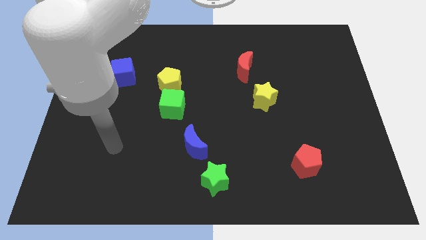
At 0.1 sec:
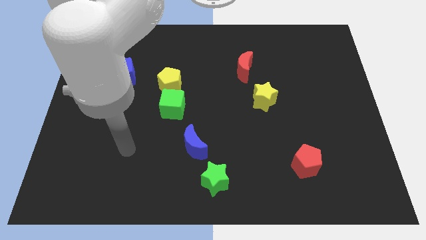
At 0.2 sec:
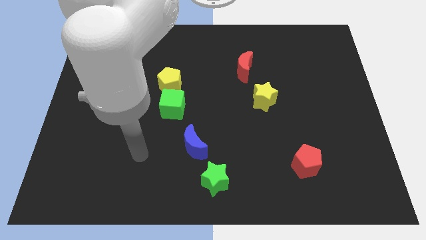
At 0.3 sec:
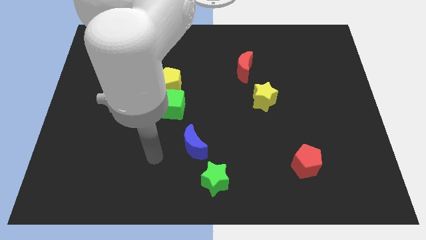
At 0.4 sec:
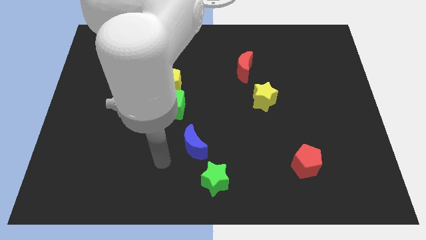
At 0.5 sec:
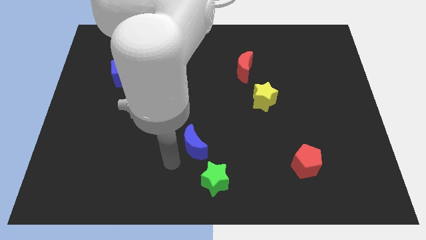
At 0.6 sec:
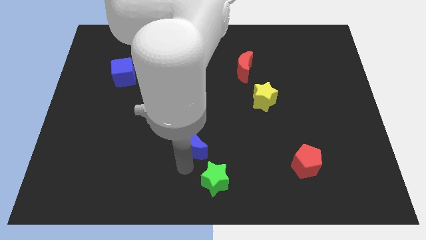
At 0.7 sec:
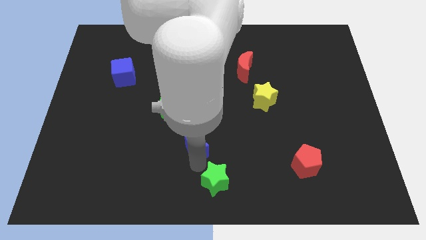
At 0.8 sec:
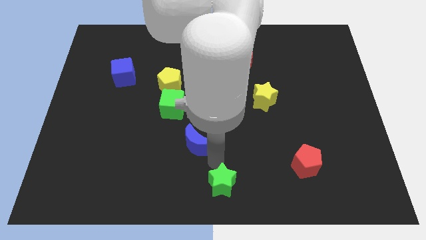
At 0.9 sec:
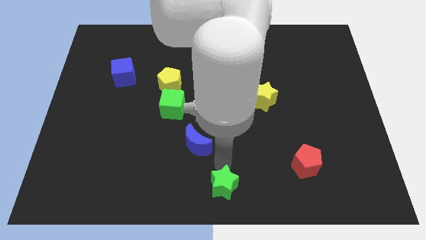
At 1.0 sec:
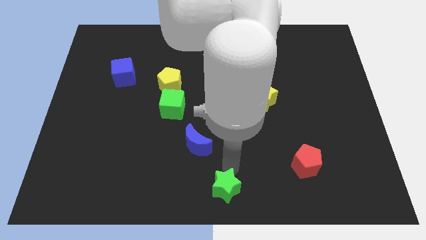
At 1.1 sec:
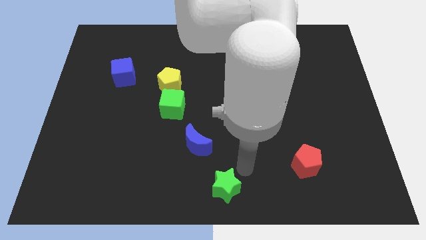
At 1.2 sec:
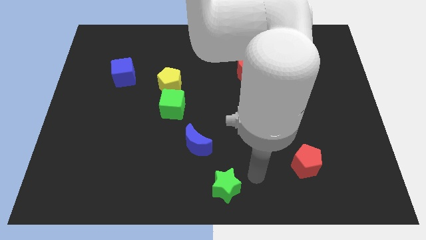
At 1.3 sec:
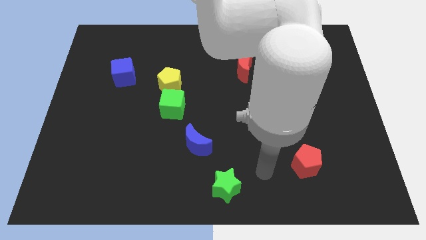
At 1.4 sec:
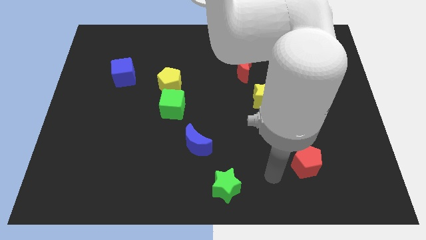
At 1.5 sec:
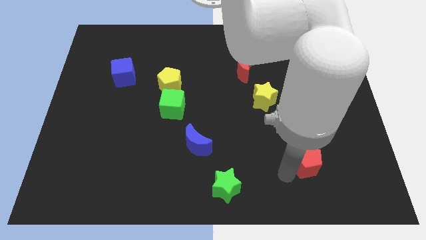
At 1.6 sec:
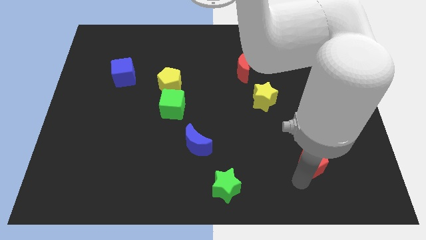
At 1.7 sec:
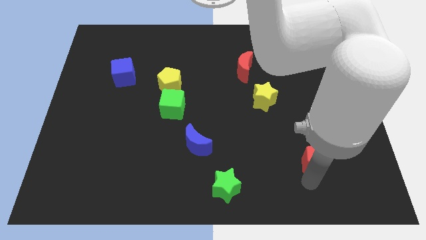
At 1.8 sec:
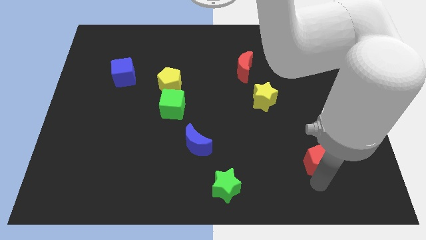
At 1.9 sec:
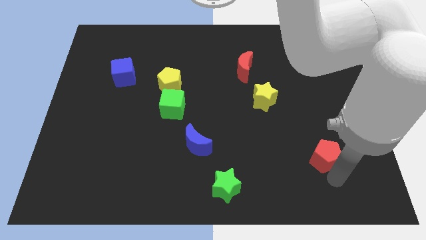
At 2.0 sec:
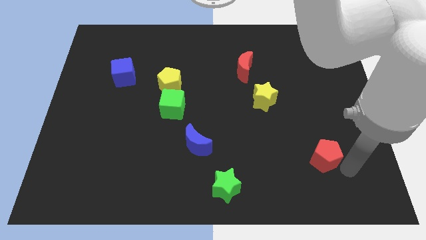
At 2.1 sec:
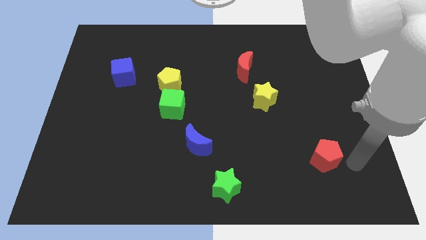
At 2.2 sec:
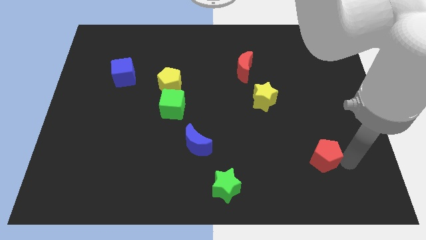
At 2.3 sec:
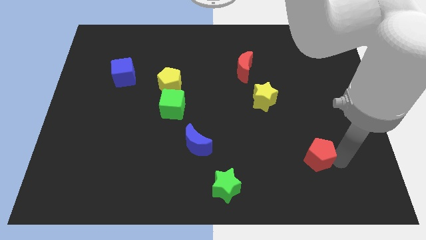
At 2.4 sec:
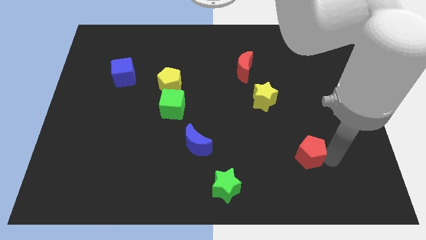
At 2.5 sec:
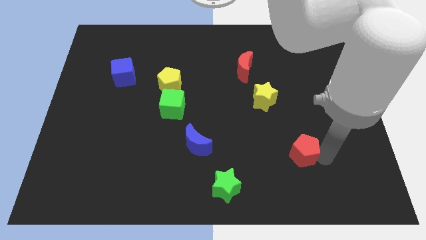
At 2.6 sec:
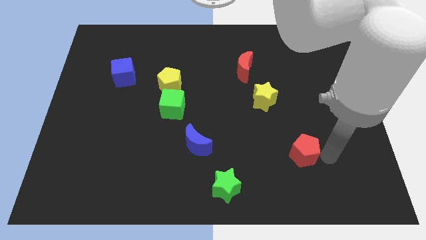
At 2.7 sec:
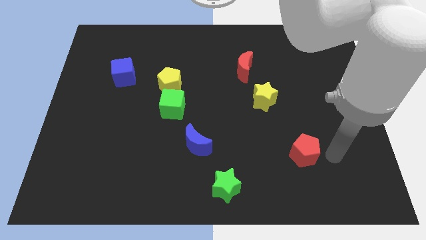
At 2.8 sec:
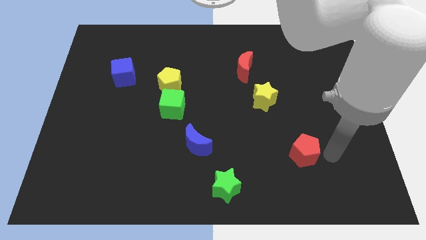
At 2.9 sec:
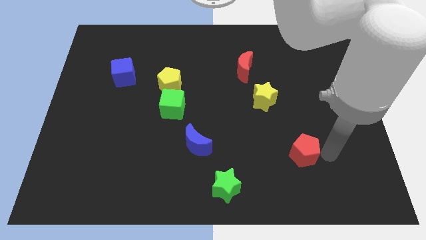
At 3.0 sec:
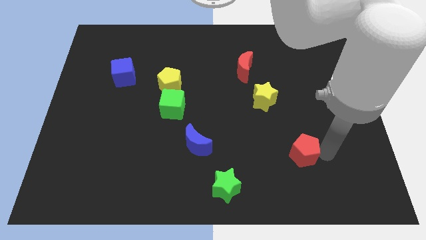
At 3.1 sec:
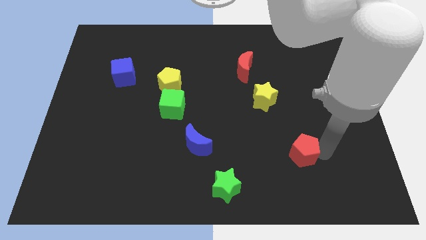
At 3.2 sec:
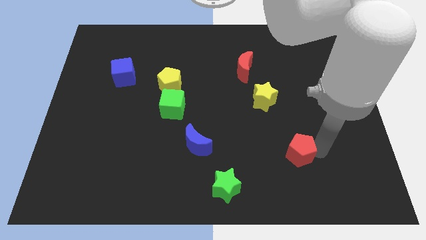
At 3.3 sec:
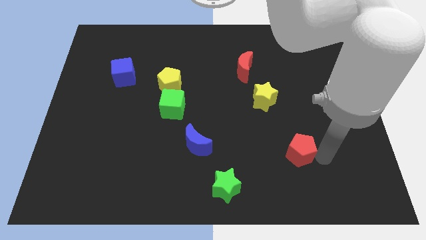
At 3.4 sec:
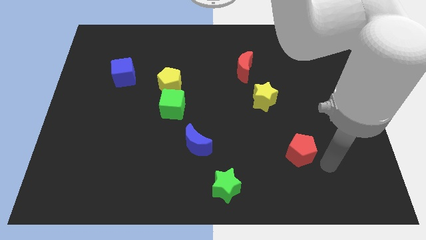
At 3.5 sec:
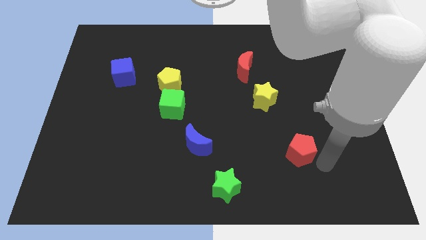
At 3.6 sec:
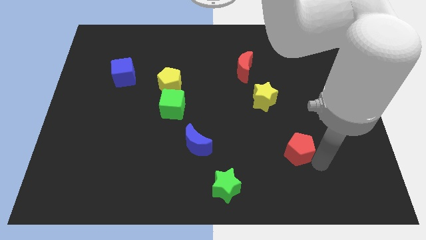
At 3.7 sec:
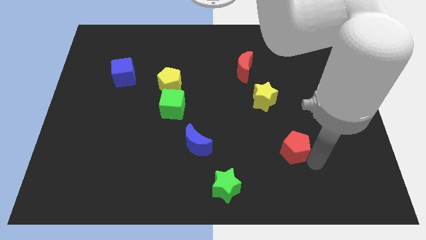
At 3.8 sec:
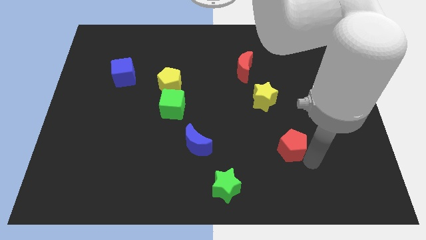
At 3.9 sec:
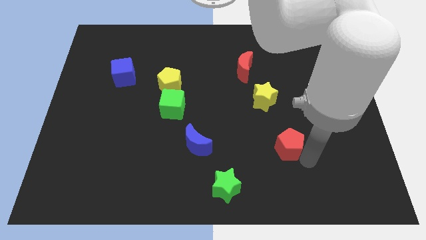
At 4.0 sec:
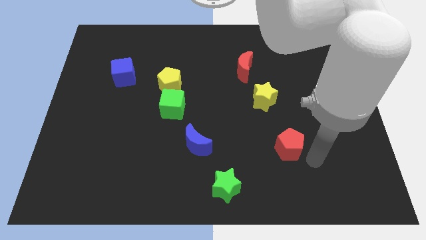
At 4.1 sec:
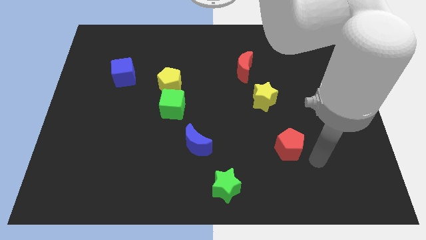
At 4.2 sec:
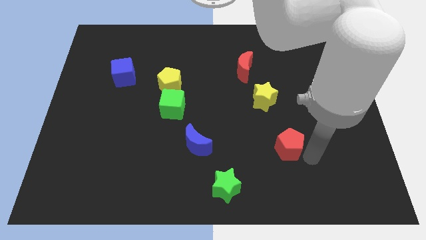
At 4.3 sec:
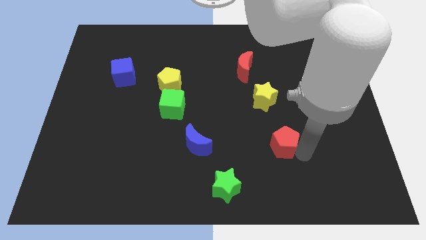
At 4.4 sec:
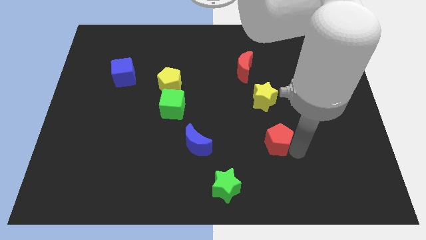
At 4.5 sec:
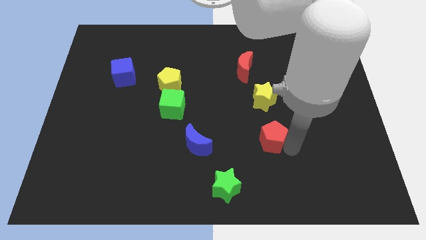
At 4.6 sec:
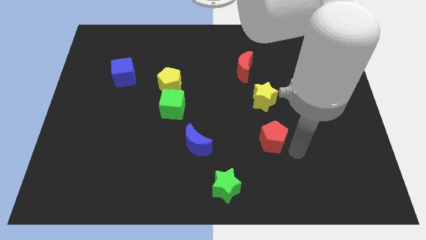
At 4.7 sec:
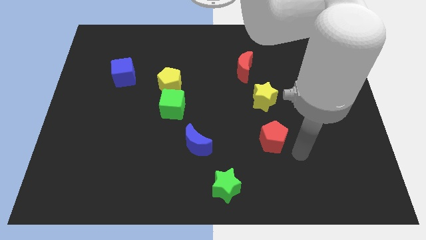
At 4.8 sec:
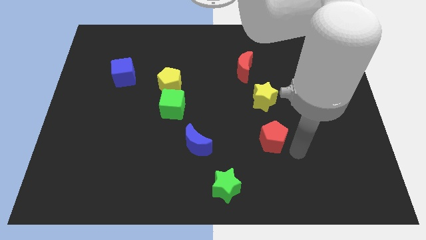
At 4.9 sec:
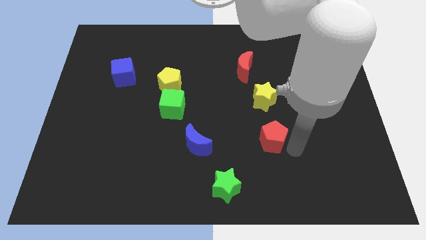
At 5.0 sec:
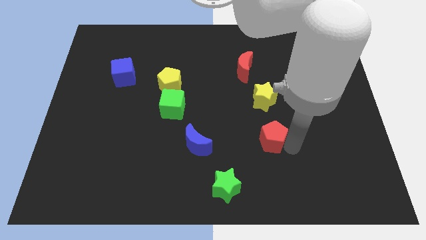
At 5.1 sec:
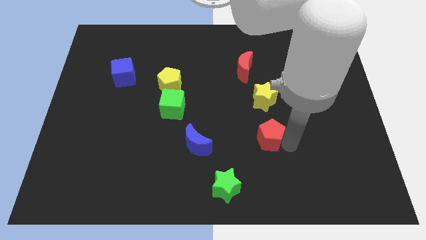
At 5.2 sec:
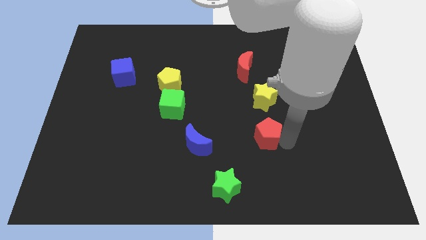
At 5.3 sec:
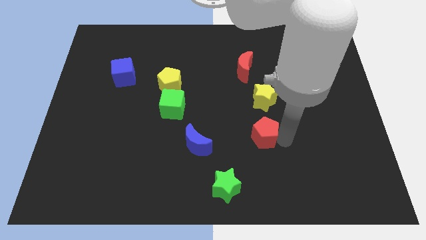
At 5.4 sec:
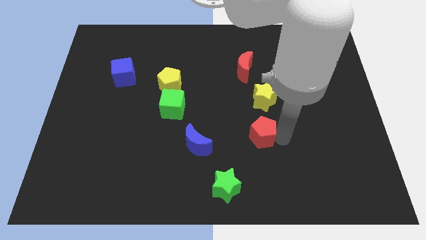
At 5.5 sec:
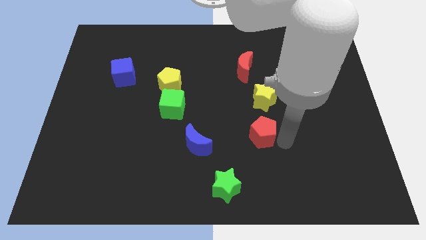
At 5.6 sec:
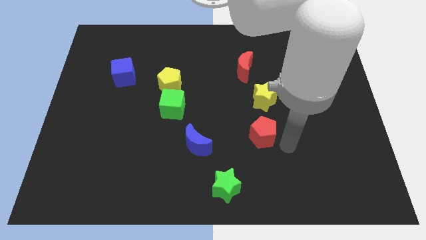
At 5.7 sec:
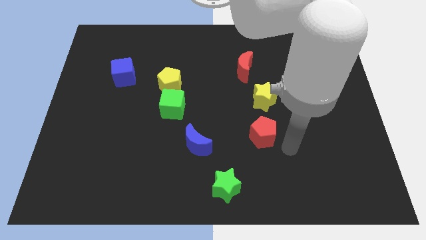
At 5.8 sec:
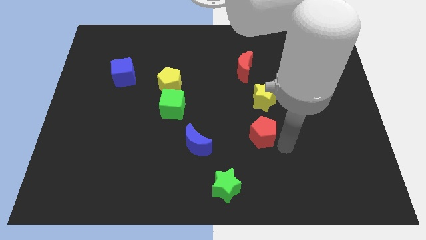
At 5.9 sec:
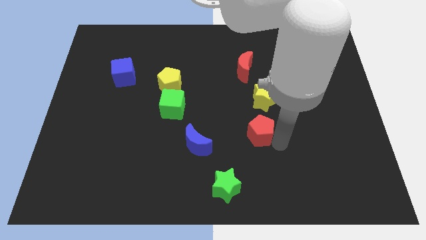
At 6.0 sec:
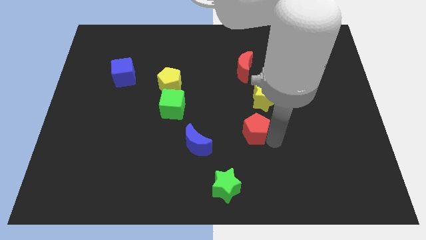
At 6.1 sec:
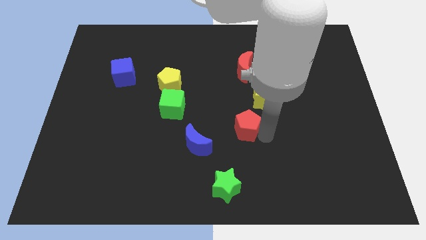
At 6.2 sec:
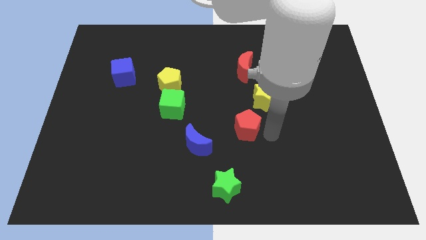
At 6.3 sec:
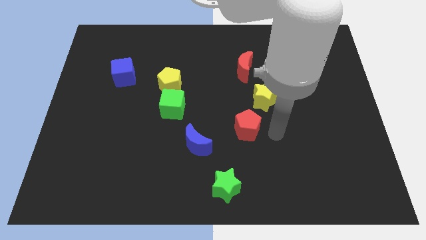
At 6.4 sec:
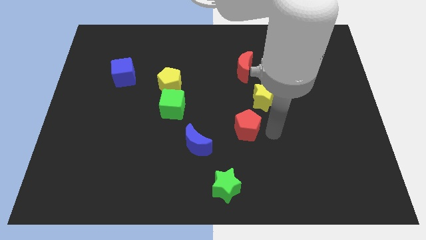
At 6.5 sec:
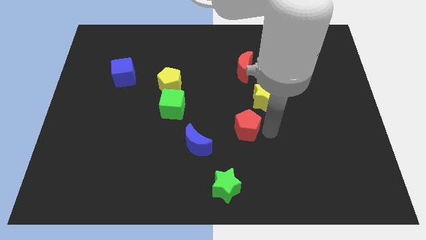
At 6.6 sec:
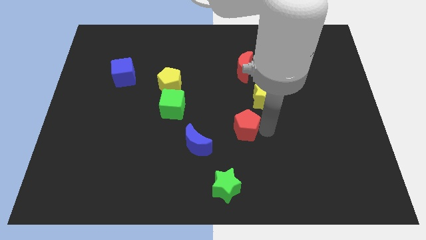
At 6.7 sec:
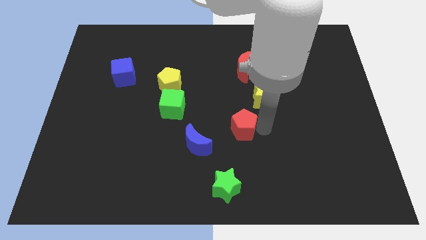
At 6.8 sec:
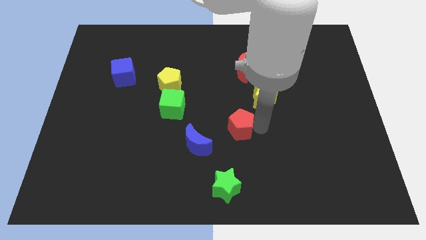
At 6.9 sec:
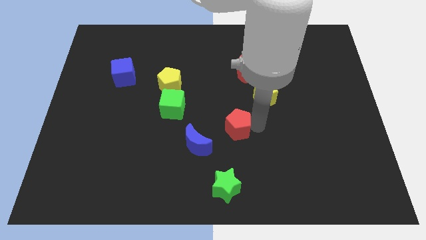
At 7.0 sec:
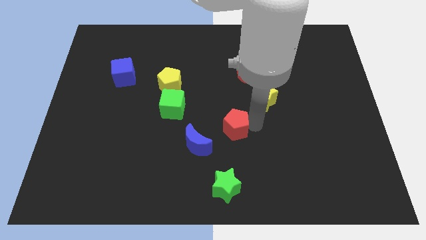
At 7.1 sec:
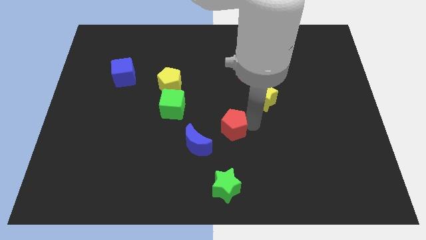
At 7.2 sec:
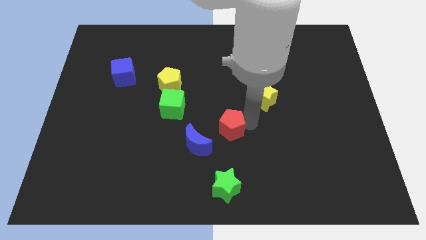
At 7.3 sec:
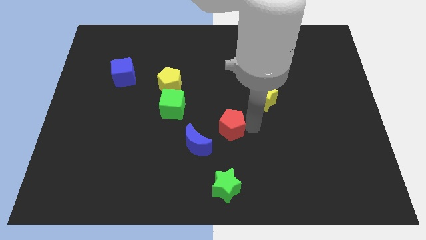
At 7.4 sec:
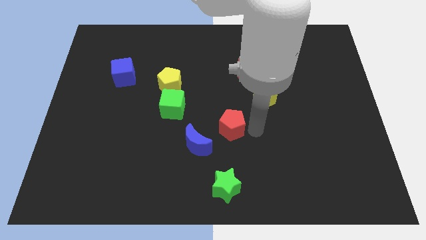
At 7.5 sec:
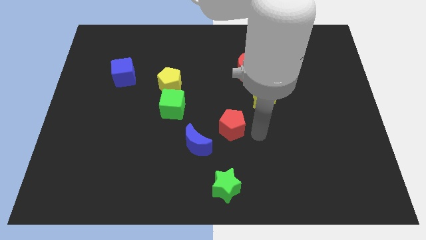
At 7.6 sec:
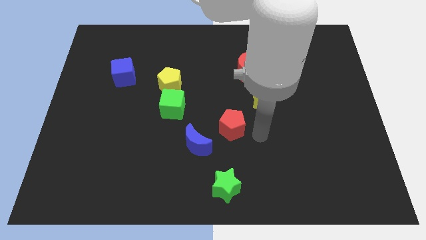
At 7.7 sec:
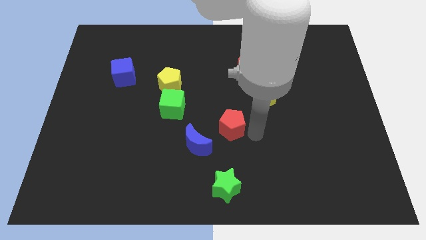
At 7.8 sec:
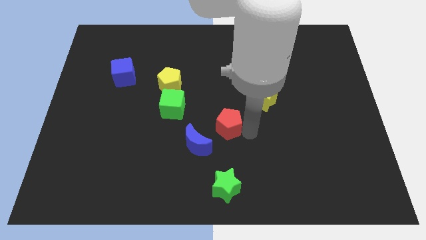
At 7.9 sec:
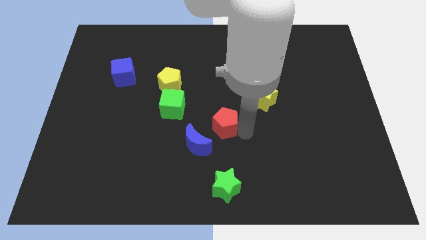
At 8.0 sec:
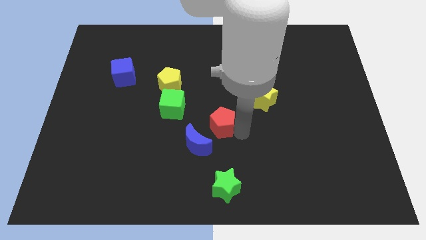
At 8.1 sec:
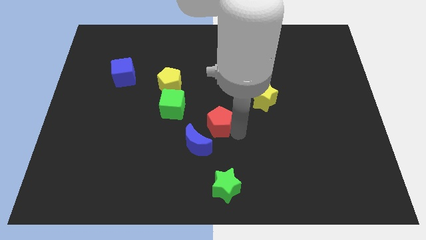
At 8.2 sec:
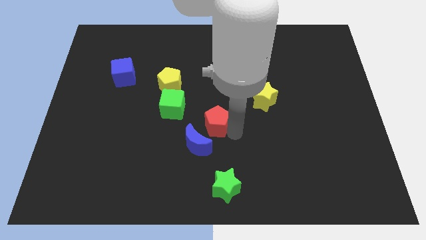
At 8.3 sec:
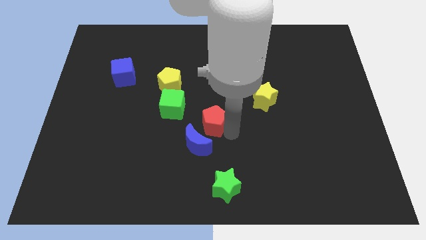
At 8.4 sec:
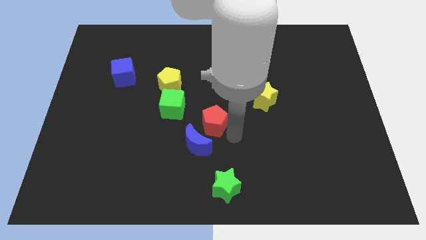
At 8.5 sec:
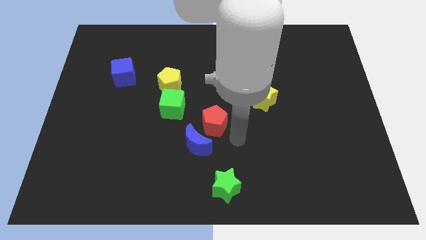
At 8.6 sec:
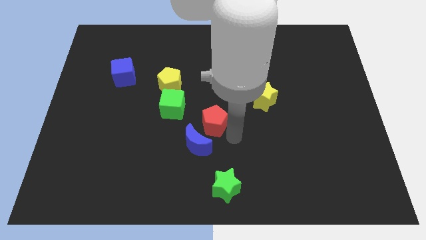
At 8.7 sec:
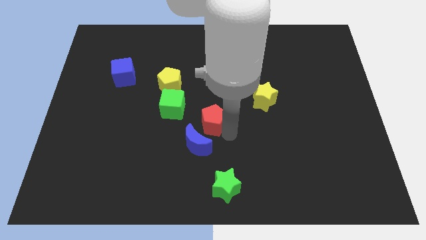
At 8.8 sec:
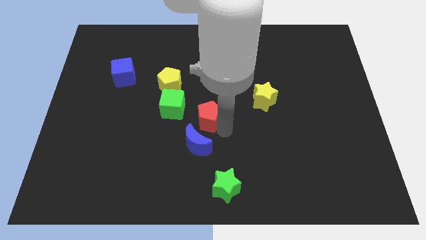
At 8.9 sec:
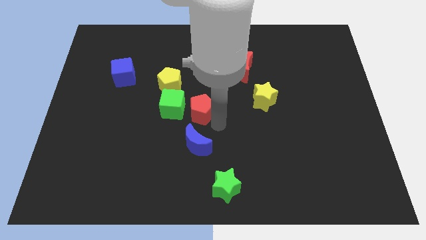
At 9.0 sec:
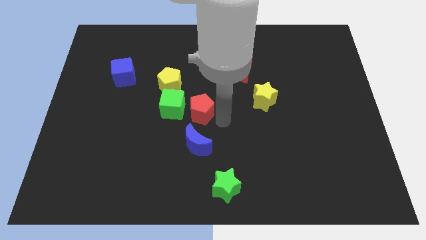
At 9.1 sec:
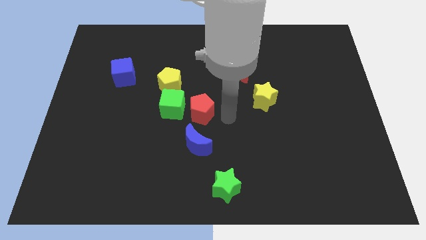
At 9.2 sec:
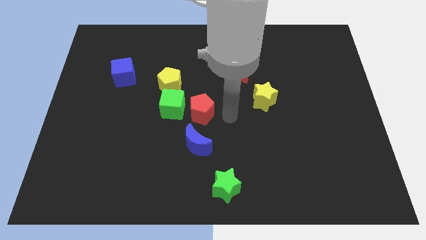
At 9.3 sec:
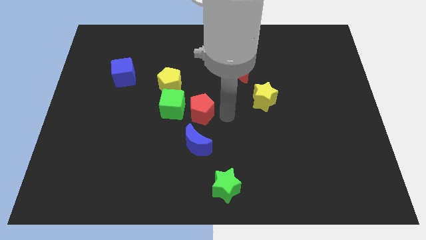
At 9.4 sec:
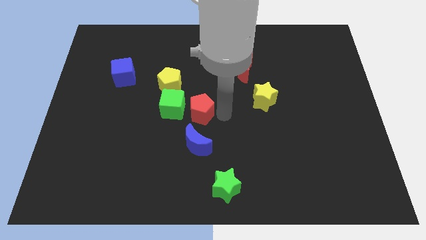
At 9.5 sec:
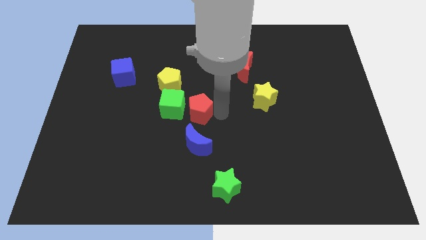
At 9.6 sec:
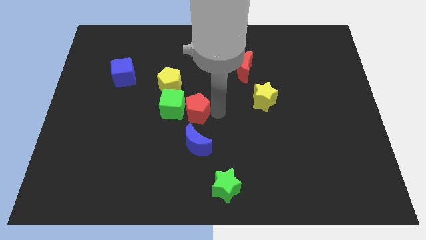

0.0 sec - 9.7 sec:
push the red pentagon close to the green cube
